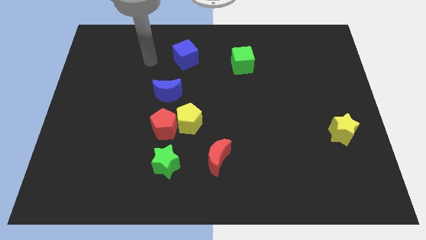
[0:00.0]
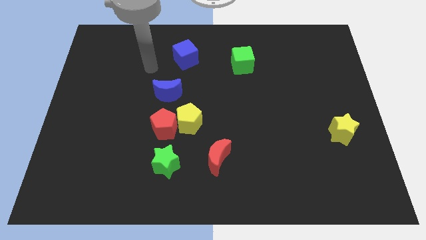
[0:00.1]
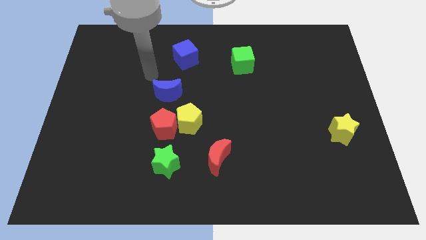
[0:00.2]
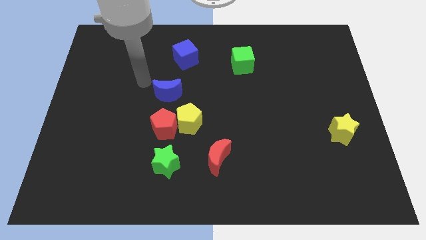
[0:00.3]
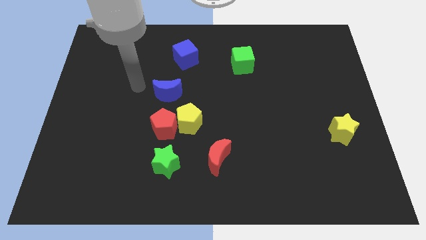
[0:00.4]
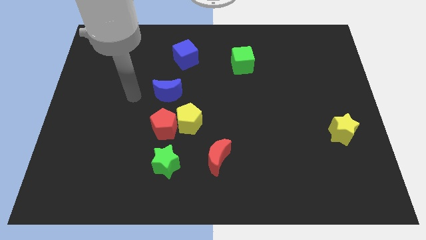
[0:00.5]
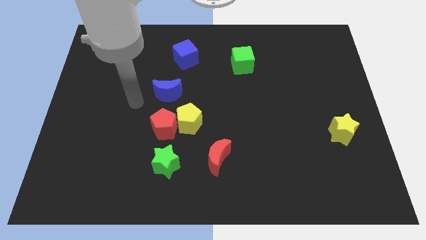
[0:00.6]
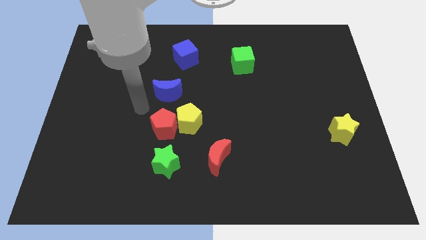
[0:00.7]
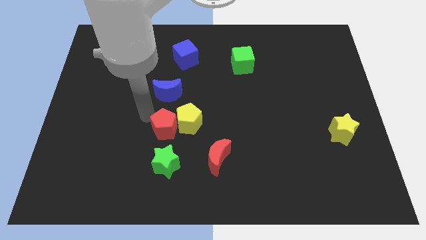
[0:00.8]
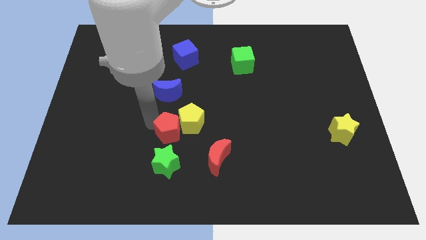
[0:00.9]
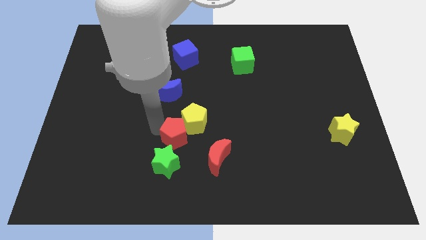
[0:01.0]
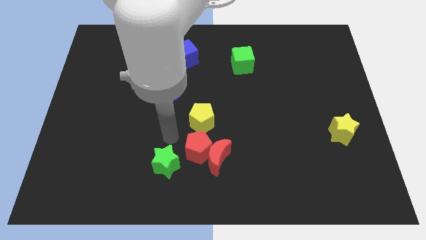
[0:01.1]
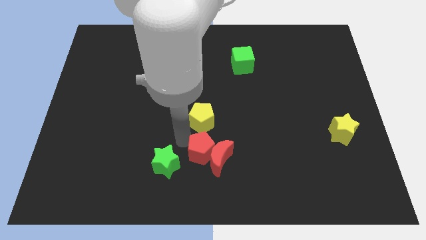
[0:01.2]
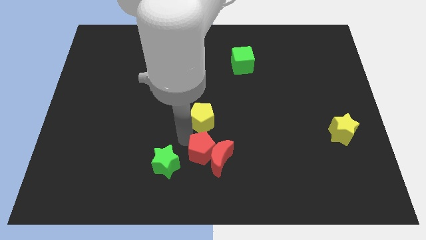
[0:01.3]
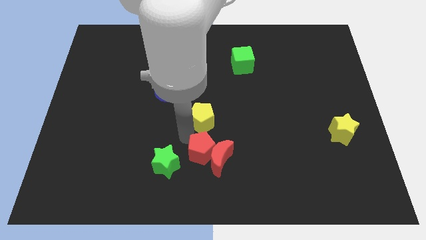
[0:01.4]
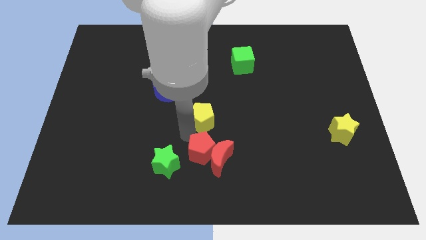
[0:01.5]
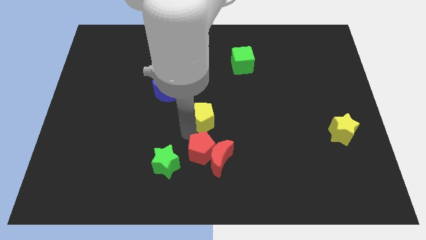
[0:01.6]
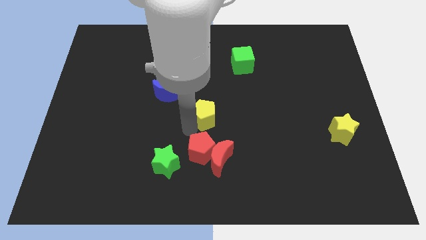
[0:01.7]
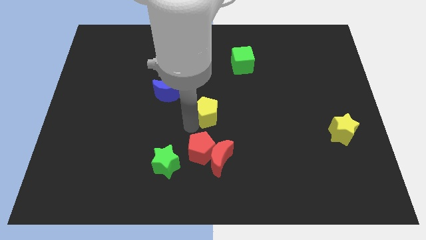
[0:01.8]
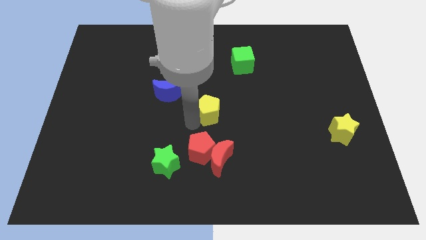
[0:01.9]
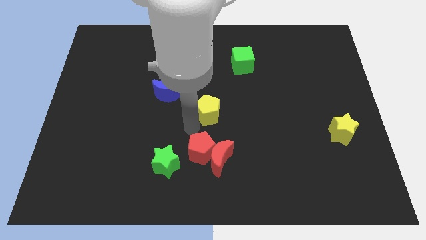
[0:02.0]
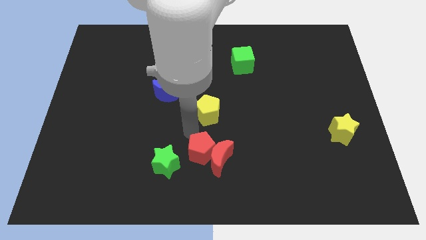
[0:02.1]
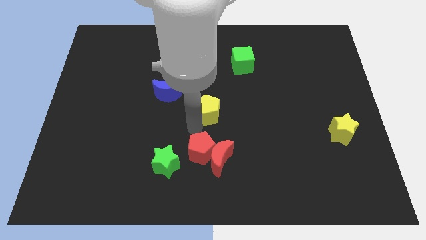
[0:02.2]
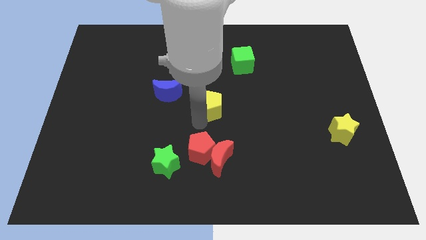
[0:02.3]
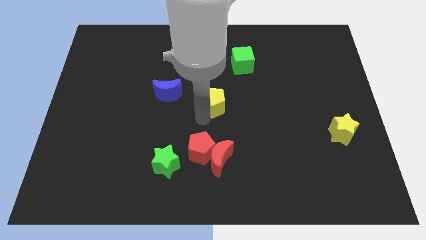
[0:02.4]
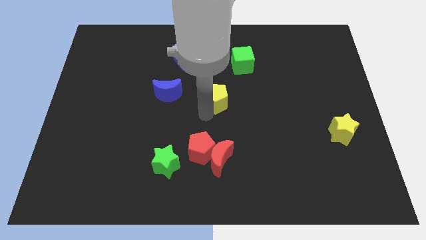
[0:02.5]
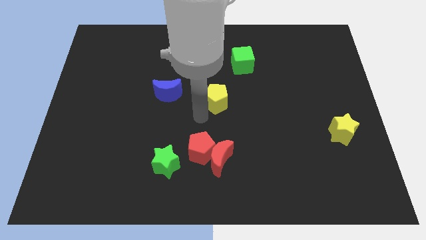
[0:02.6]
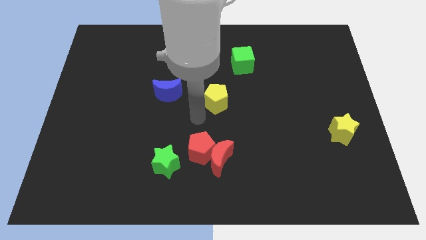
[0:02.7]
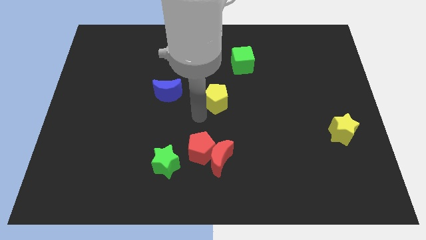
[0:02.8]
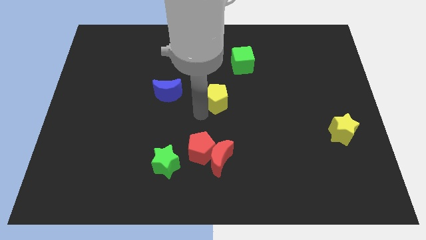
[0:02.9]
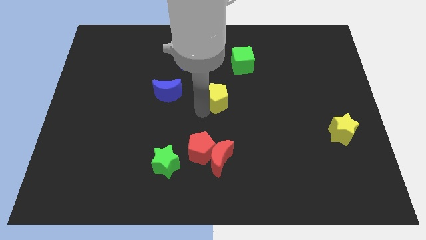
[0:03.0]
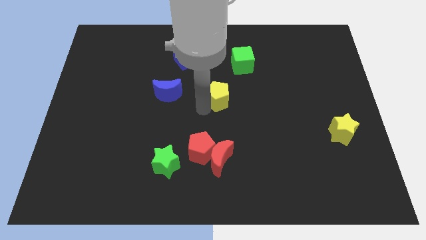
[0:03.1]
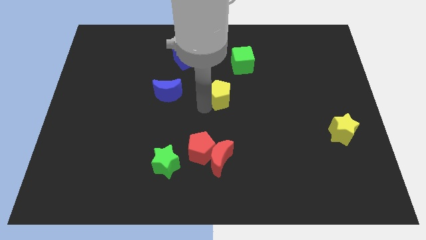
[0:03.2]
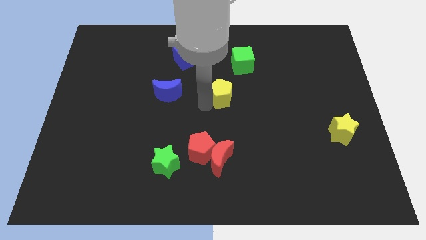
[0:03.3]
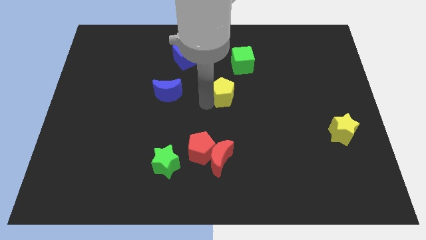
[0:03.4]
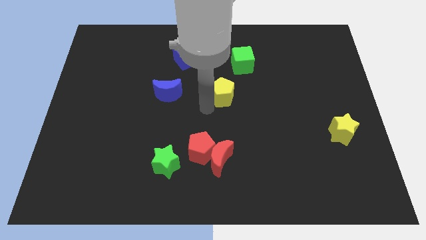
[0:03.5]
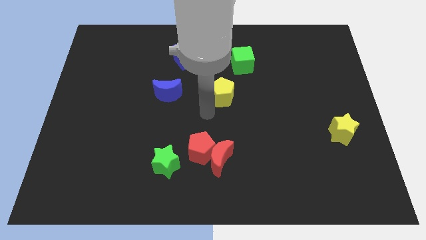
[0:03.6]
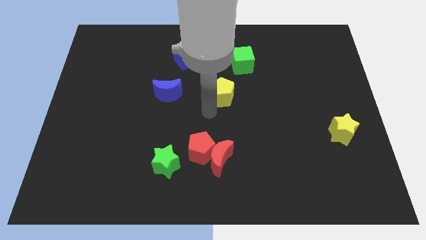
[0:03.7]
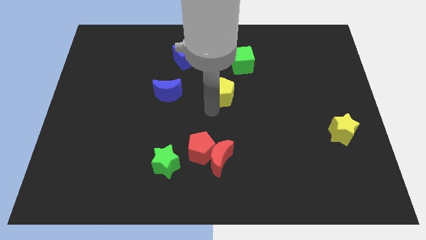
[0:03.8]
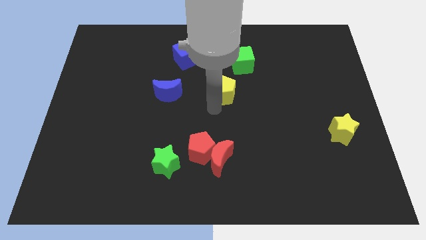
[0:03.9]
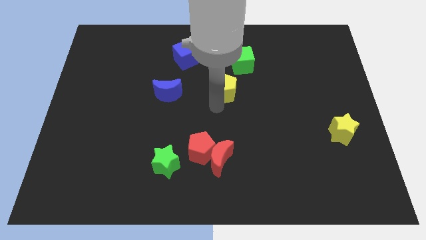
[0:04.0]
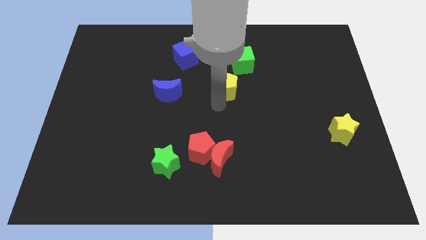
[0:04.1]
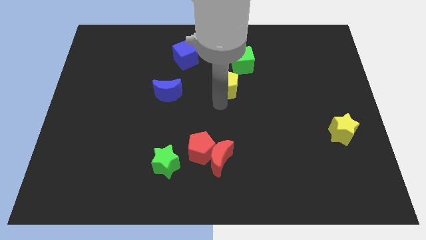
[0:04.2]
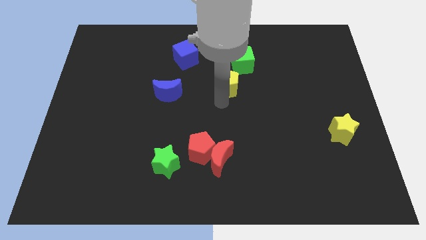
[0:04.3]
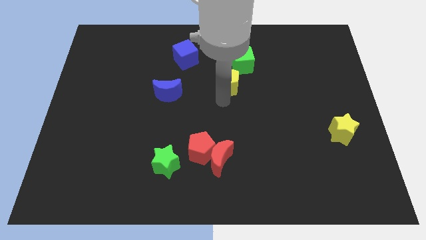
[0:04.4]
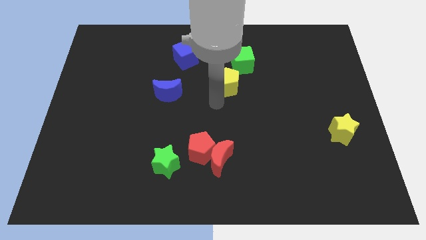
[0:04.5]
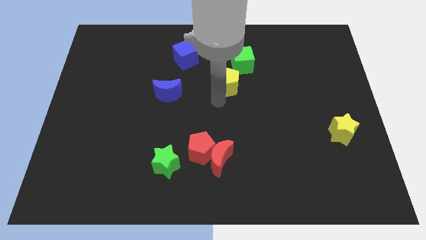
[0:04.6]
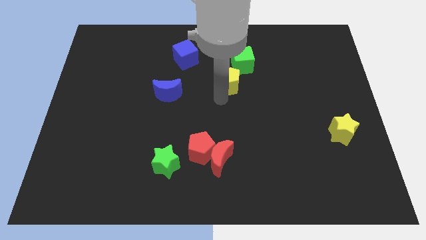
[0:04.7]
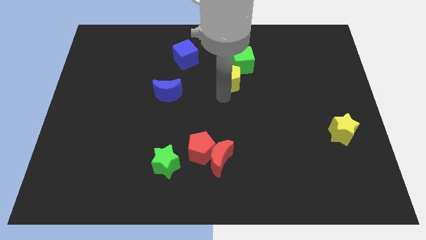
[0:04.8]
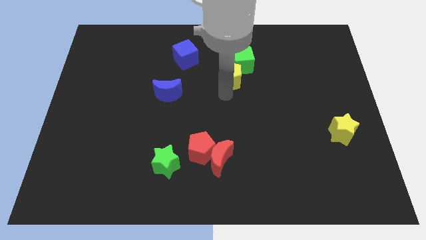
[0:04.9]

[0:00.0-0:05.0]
push the yellow pentagon next to the green cube

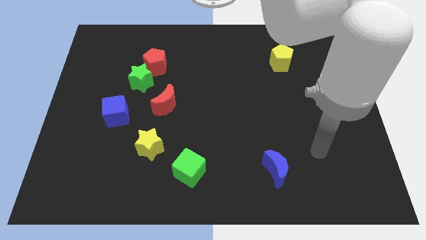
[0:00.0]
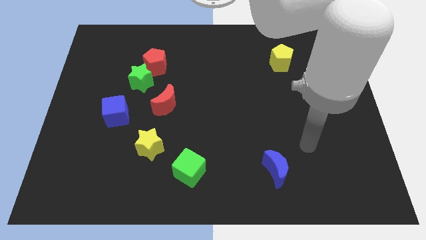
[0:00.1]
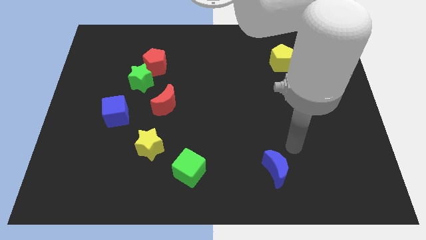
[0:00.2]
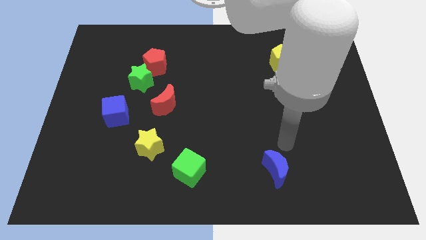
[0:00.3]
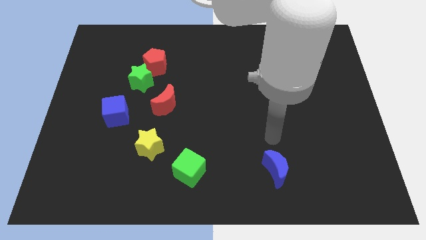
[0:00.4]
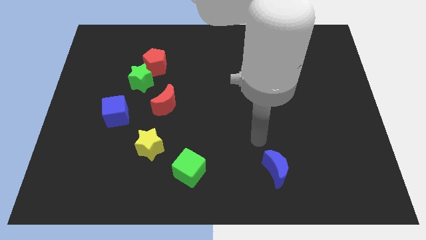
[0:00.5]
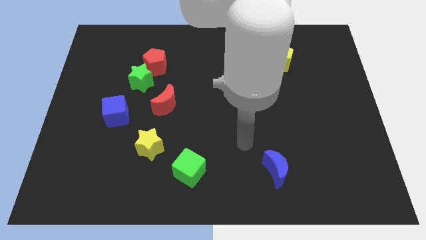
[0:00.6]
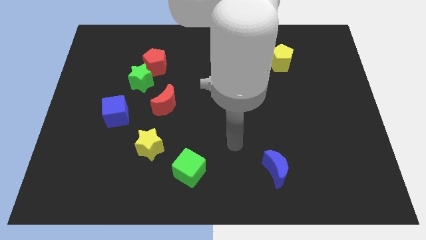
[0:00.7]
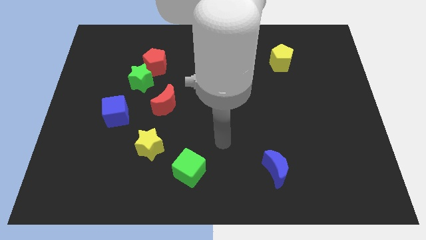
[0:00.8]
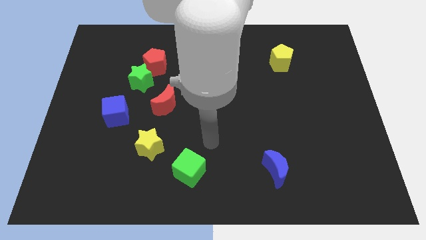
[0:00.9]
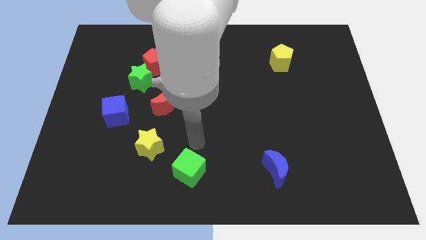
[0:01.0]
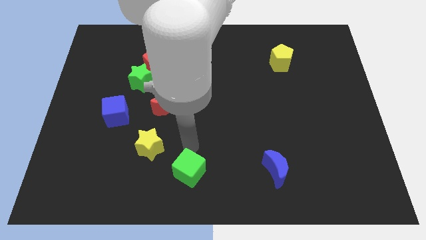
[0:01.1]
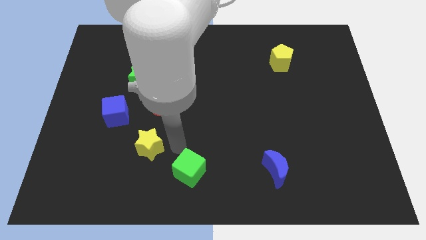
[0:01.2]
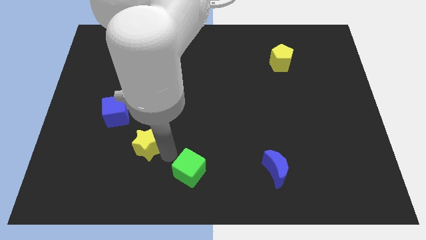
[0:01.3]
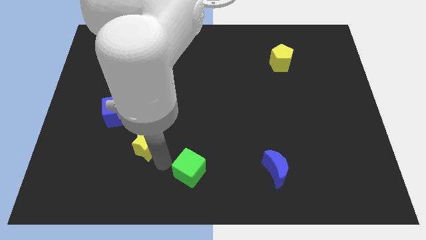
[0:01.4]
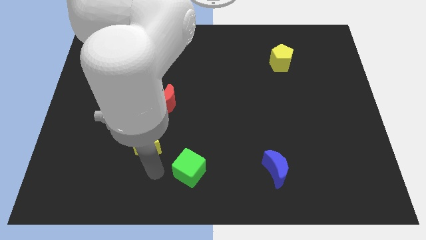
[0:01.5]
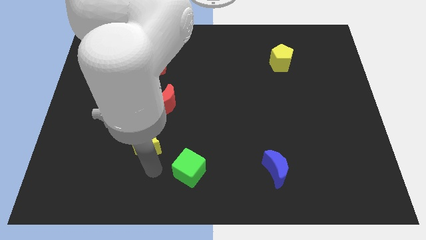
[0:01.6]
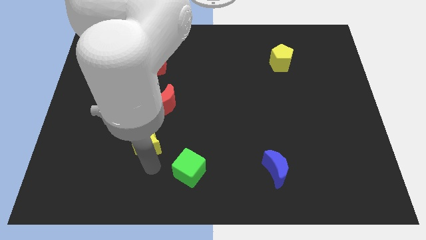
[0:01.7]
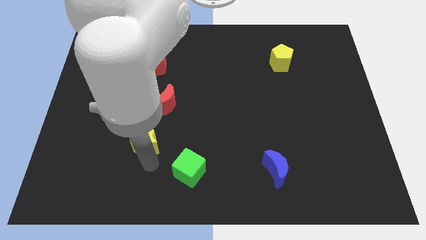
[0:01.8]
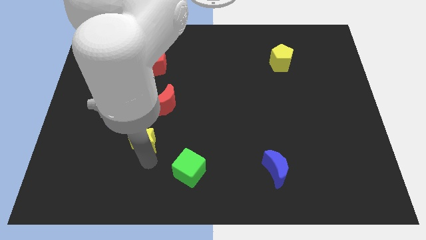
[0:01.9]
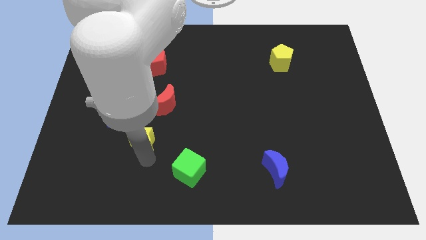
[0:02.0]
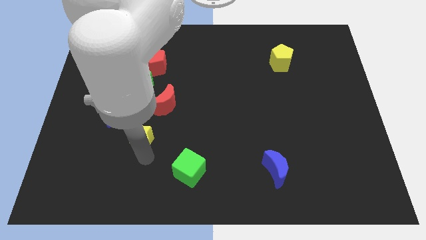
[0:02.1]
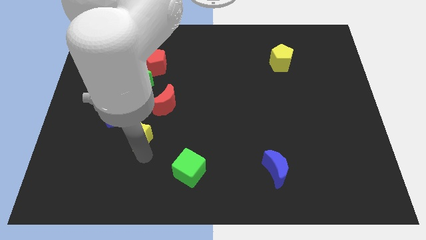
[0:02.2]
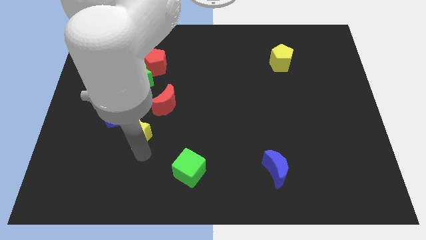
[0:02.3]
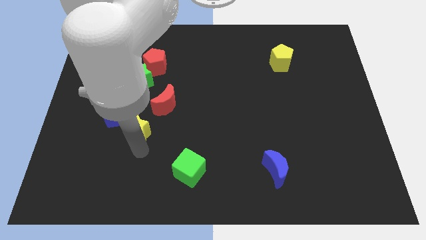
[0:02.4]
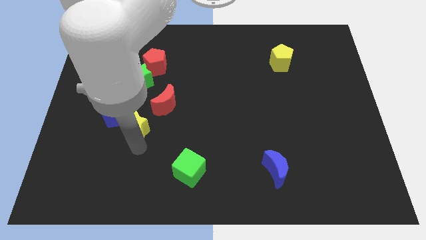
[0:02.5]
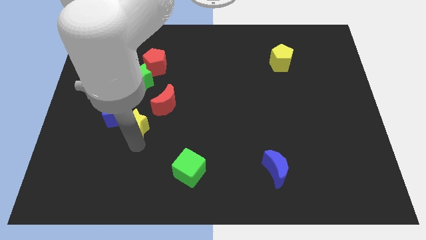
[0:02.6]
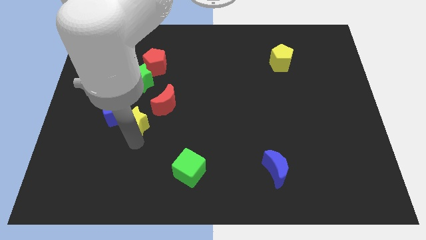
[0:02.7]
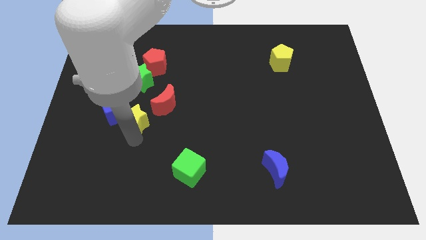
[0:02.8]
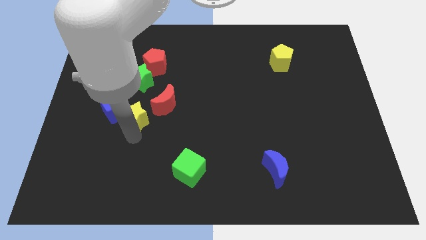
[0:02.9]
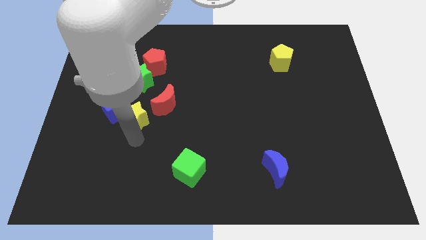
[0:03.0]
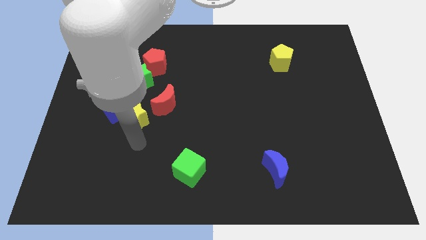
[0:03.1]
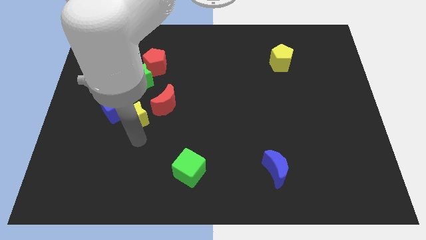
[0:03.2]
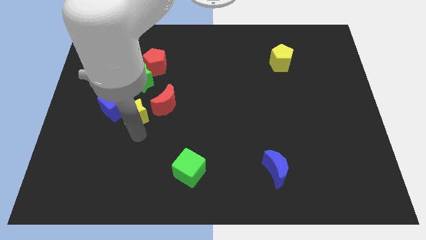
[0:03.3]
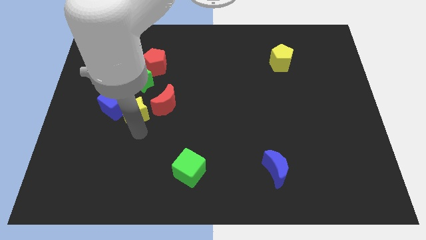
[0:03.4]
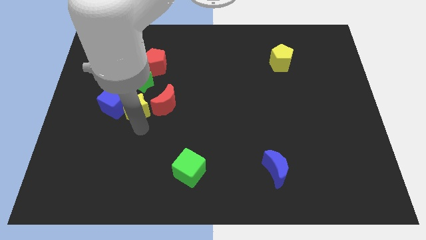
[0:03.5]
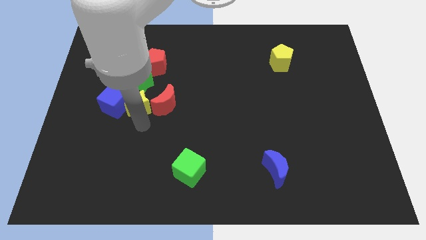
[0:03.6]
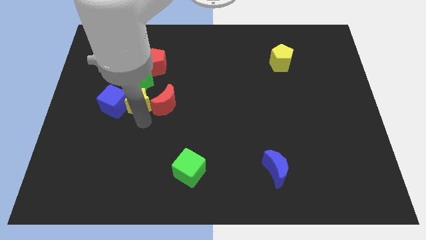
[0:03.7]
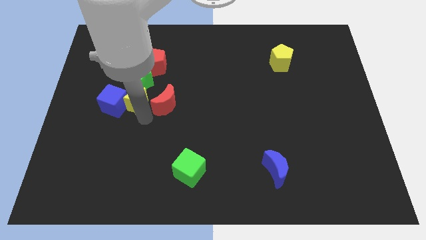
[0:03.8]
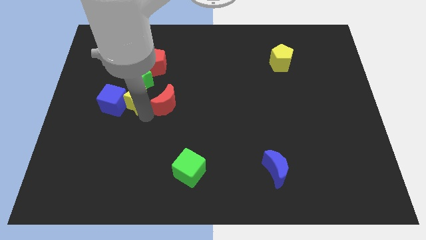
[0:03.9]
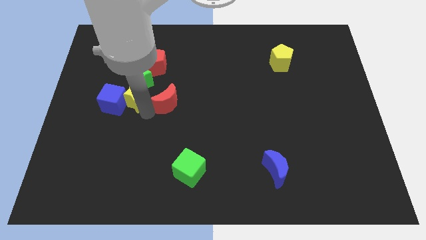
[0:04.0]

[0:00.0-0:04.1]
put the yellow star to the green star
